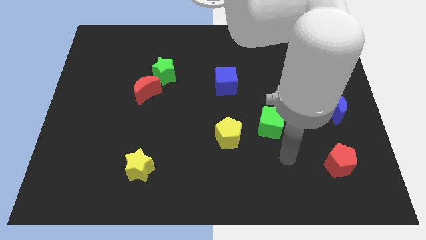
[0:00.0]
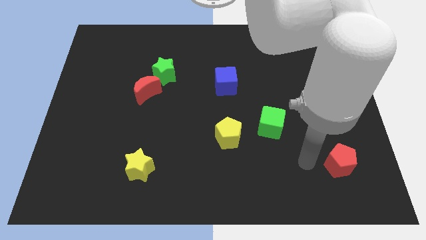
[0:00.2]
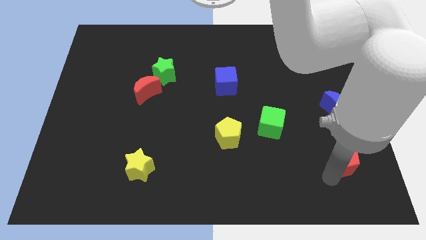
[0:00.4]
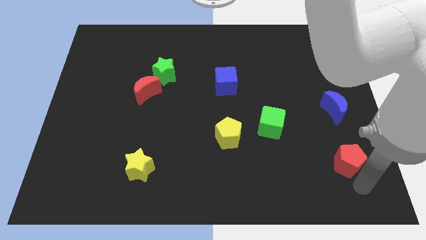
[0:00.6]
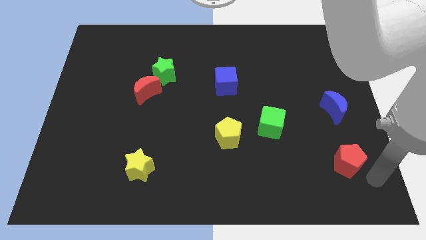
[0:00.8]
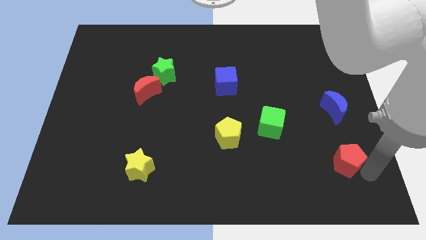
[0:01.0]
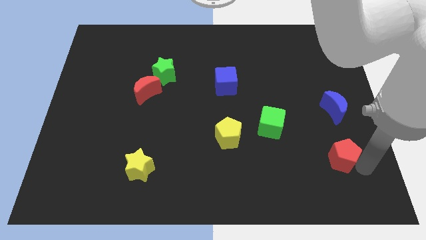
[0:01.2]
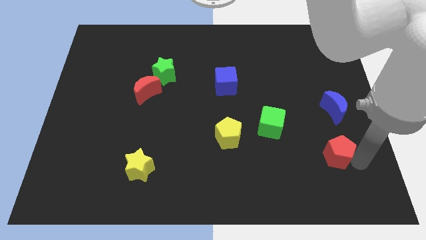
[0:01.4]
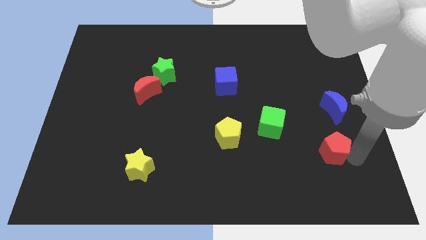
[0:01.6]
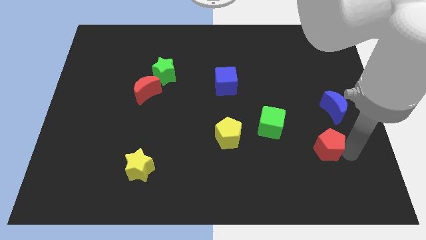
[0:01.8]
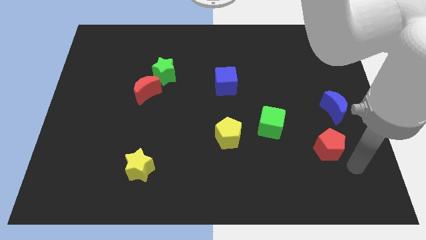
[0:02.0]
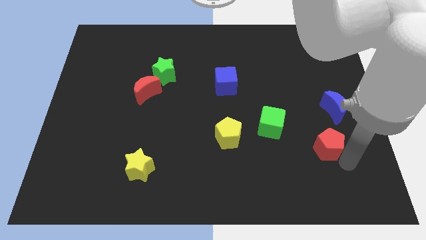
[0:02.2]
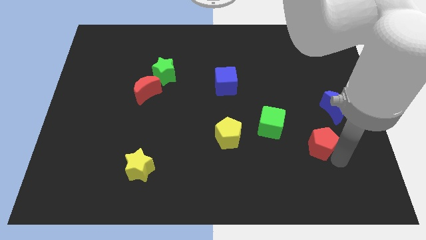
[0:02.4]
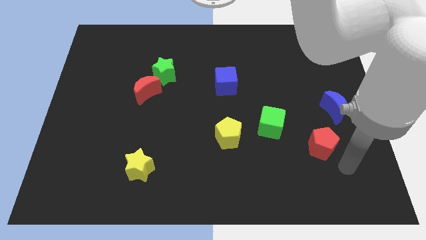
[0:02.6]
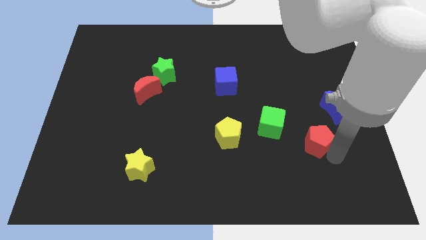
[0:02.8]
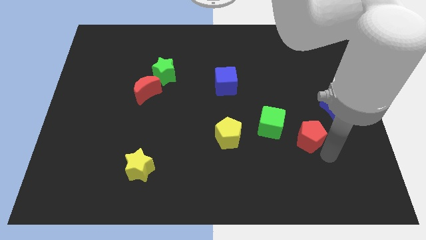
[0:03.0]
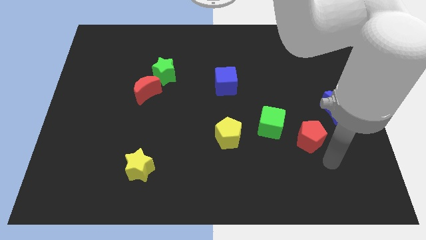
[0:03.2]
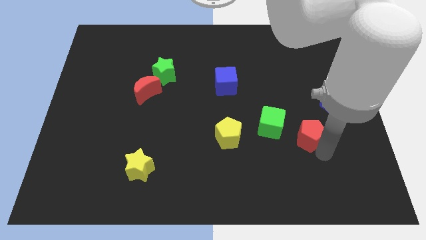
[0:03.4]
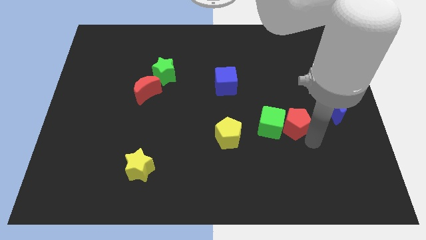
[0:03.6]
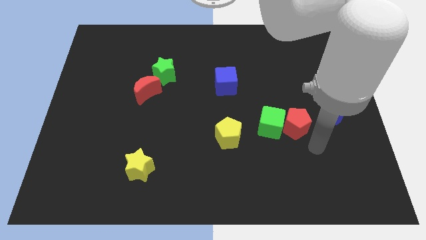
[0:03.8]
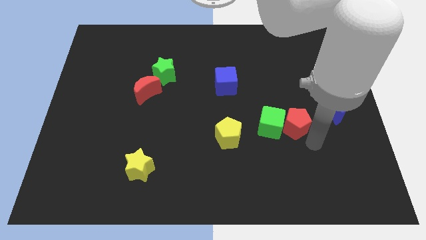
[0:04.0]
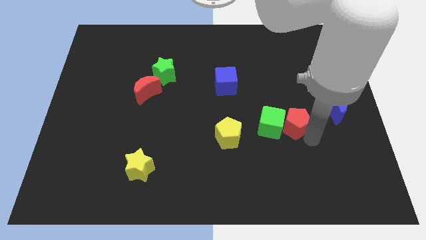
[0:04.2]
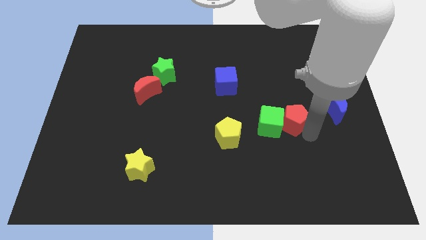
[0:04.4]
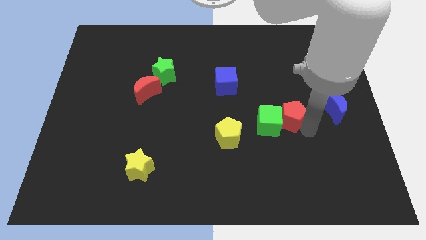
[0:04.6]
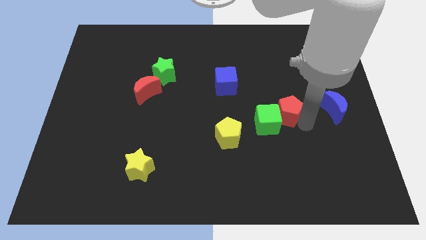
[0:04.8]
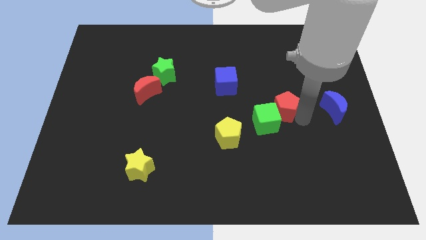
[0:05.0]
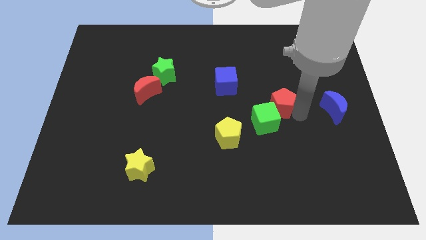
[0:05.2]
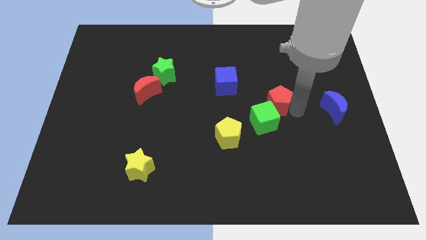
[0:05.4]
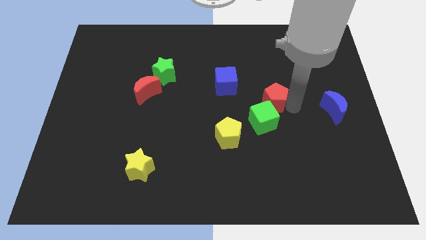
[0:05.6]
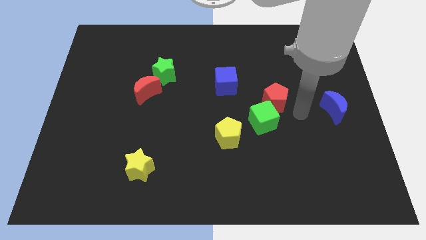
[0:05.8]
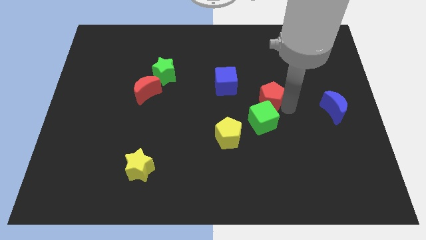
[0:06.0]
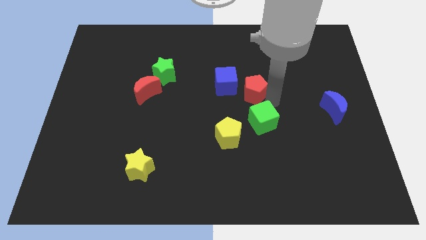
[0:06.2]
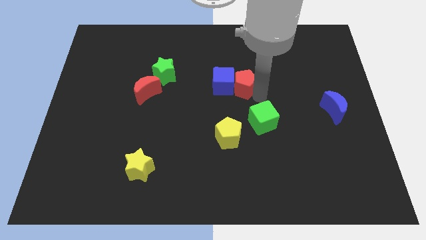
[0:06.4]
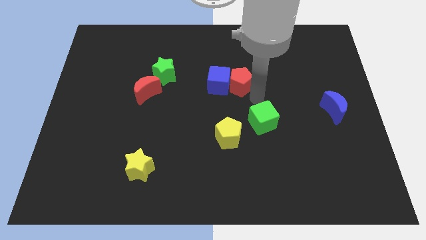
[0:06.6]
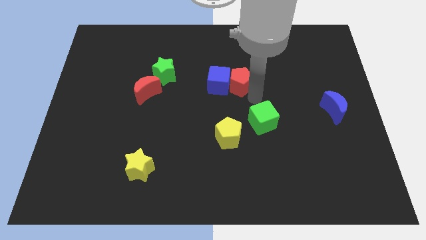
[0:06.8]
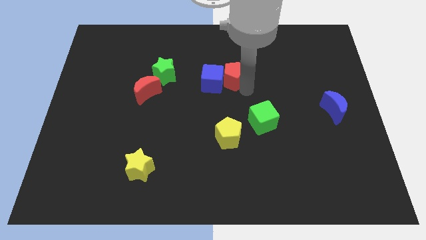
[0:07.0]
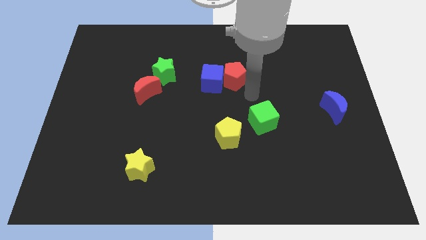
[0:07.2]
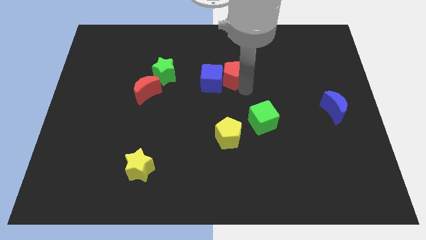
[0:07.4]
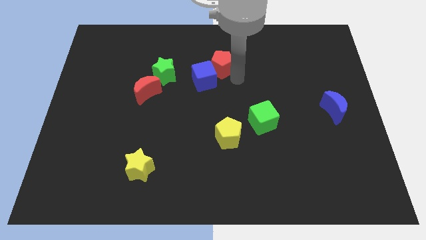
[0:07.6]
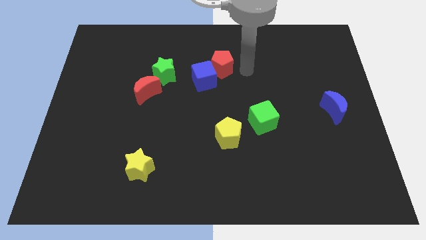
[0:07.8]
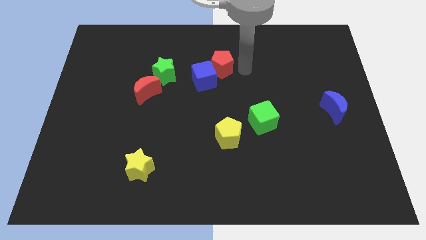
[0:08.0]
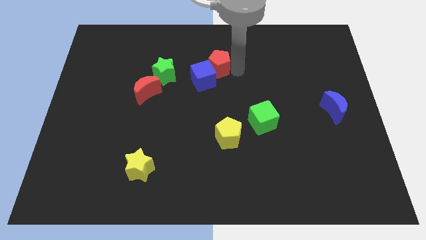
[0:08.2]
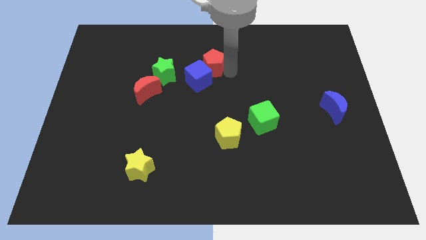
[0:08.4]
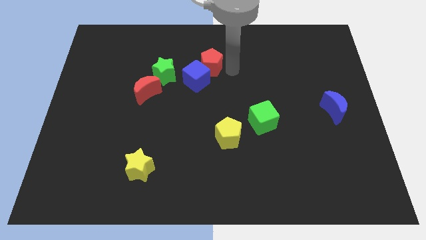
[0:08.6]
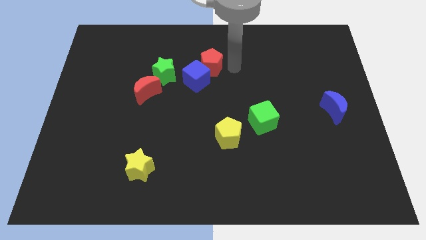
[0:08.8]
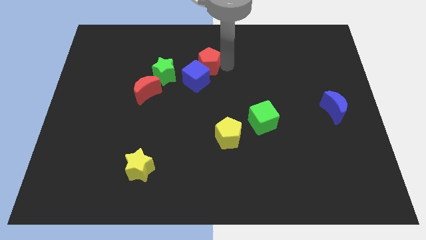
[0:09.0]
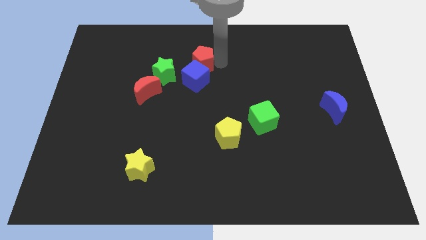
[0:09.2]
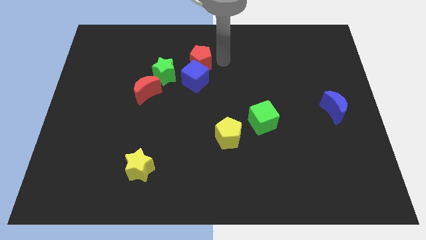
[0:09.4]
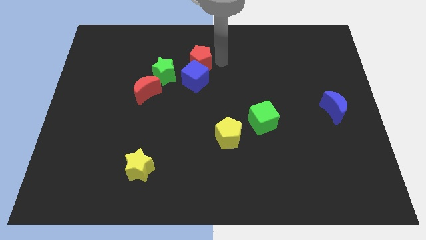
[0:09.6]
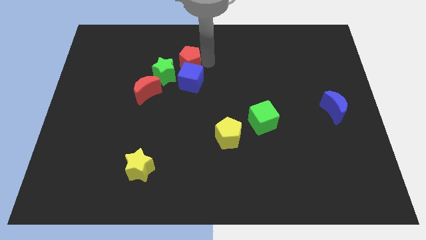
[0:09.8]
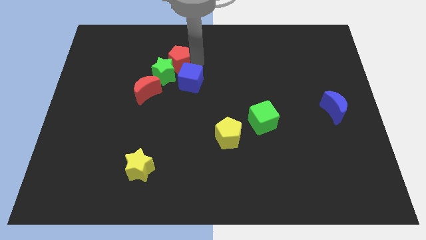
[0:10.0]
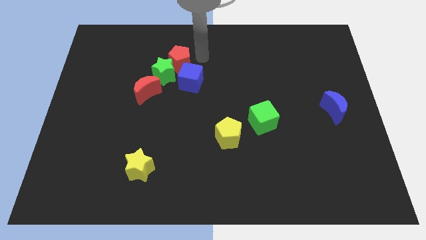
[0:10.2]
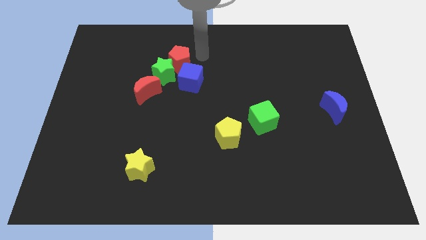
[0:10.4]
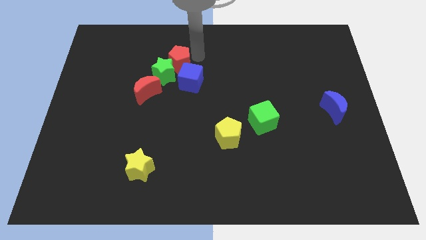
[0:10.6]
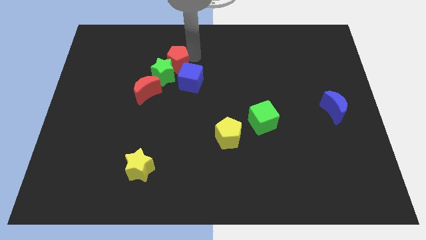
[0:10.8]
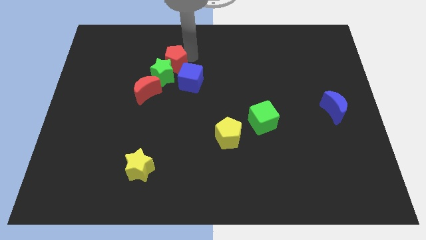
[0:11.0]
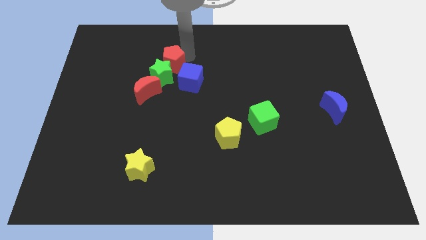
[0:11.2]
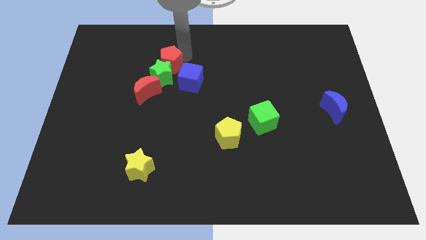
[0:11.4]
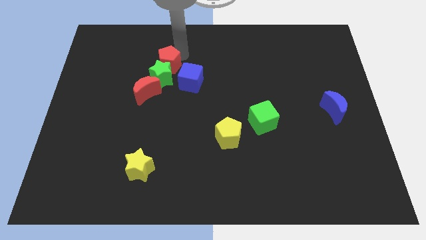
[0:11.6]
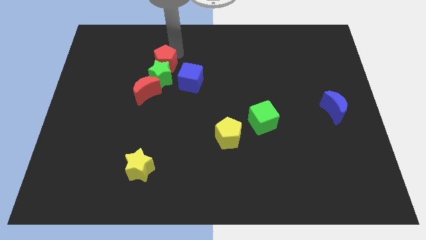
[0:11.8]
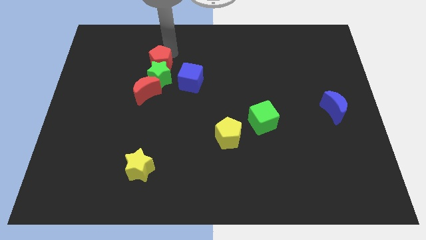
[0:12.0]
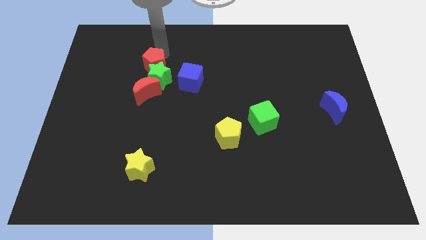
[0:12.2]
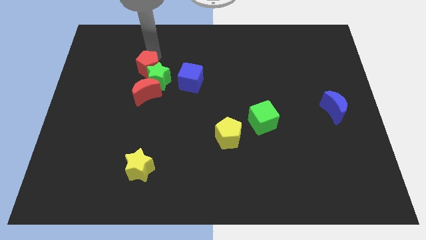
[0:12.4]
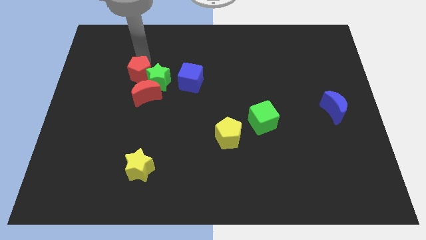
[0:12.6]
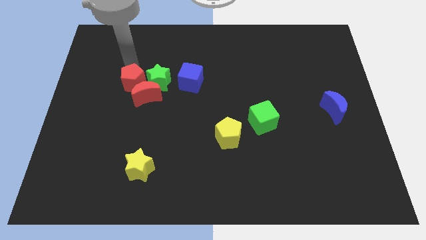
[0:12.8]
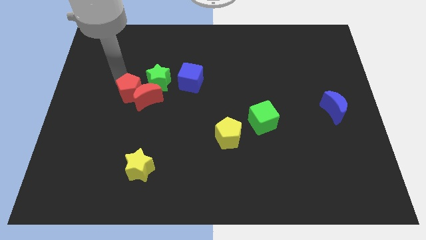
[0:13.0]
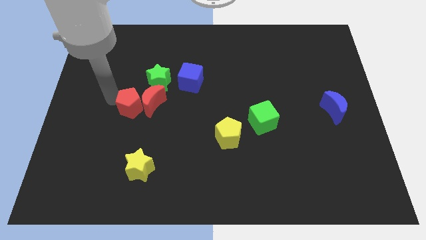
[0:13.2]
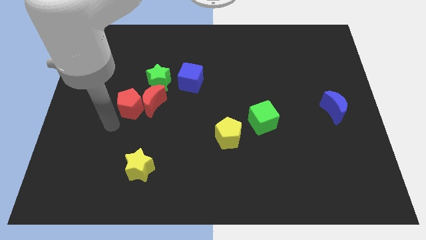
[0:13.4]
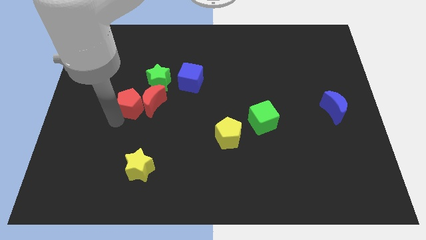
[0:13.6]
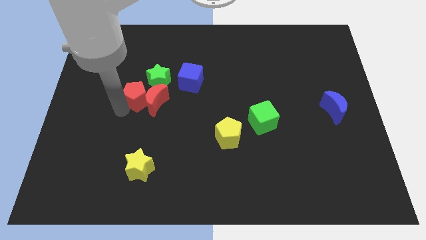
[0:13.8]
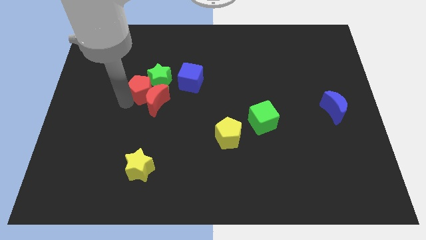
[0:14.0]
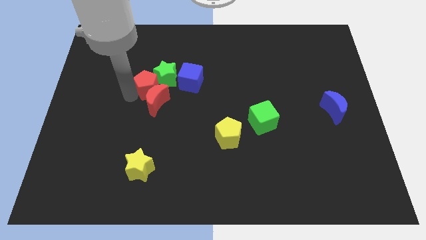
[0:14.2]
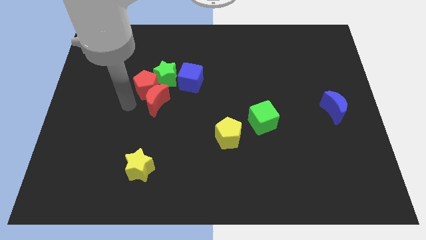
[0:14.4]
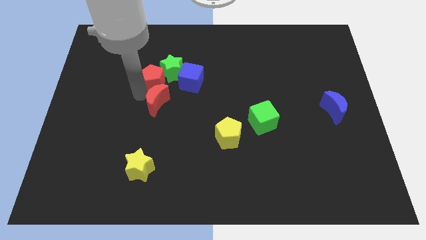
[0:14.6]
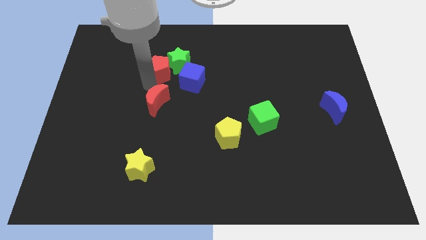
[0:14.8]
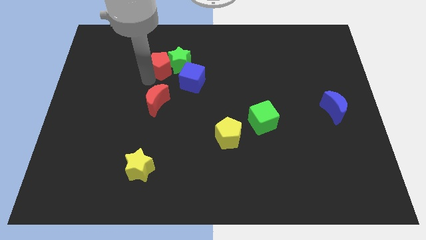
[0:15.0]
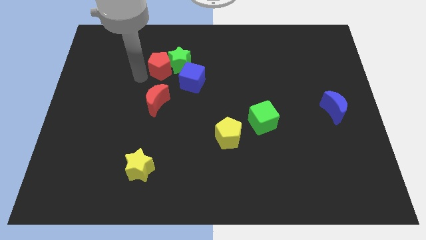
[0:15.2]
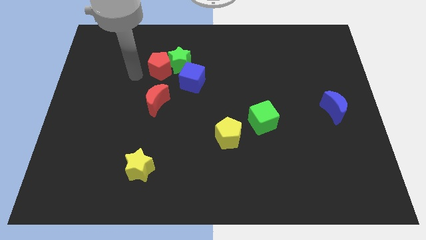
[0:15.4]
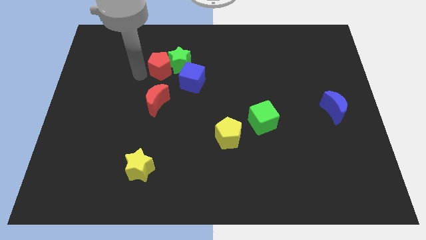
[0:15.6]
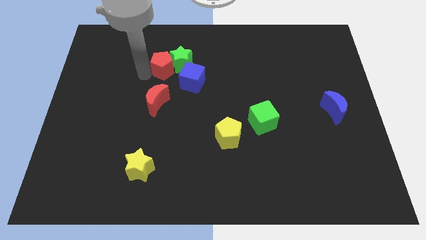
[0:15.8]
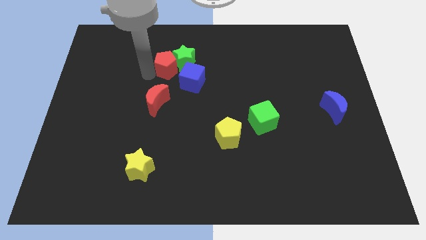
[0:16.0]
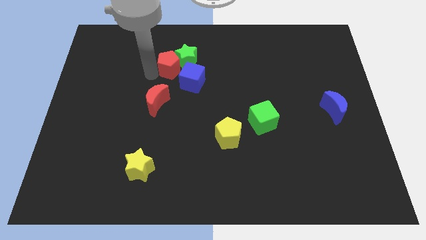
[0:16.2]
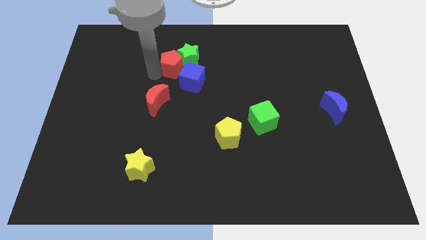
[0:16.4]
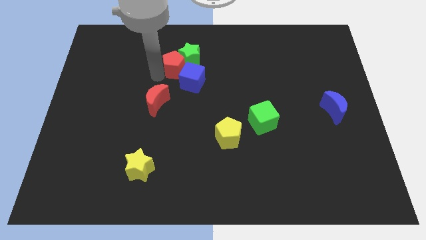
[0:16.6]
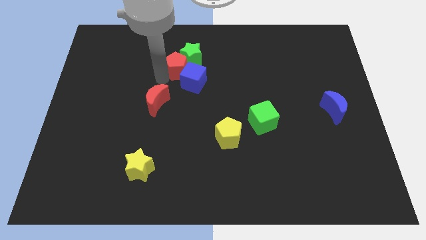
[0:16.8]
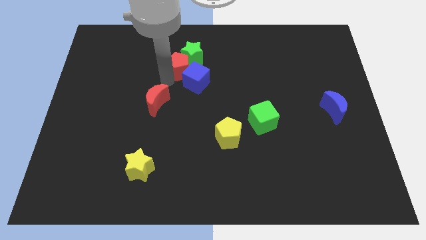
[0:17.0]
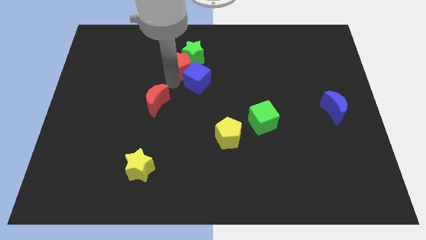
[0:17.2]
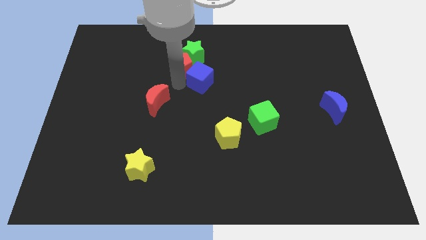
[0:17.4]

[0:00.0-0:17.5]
put the red pentagon diagonally up and to the left of the blue cube
